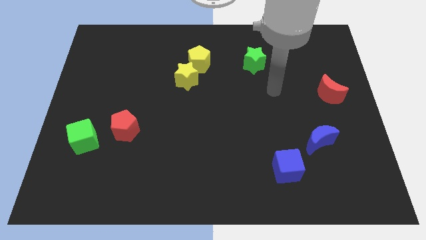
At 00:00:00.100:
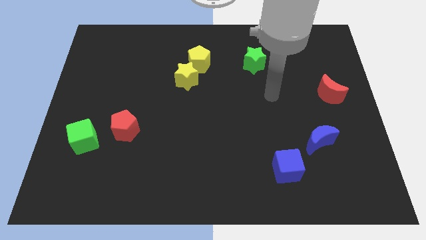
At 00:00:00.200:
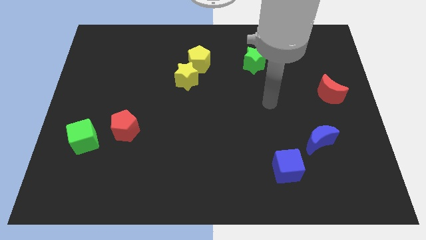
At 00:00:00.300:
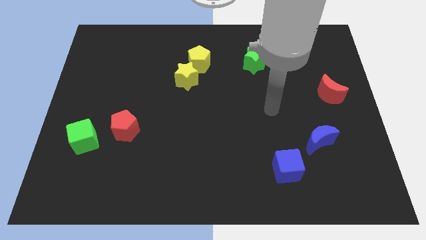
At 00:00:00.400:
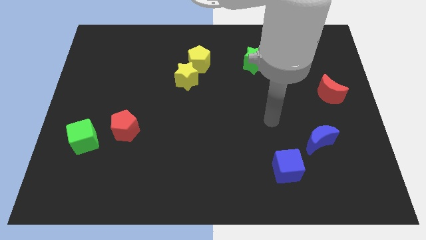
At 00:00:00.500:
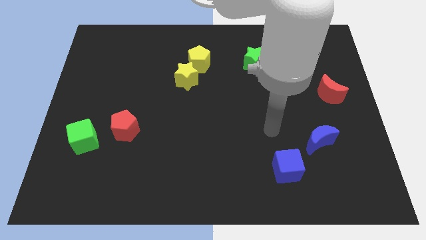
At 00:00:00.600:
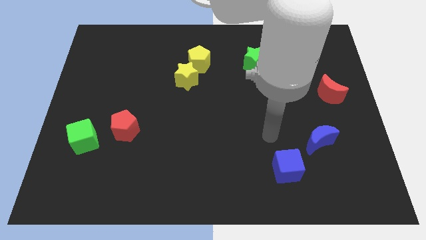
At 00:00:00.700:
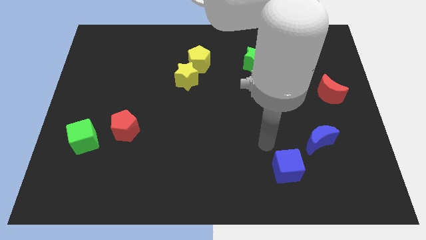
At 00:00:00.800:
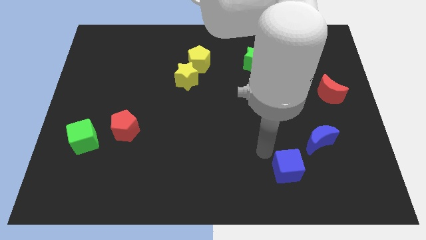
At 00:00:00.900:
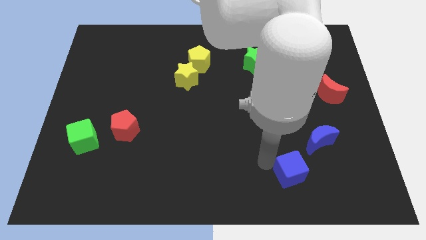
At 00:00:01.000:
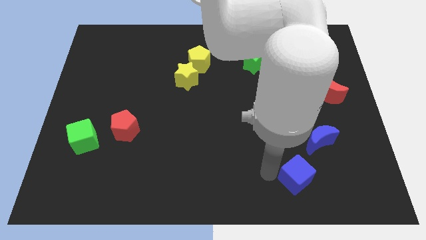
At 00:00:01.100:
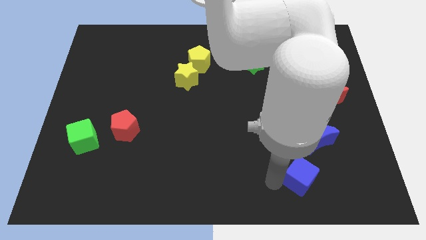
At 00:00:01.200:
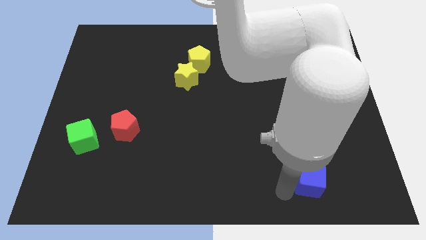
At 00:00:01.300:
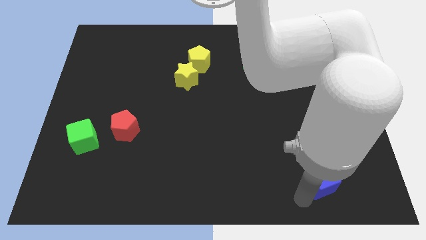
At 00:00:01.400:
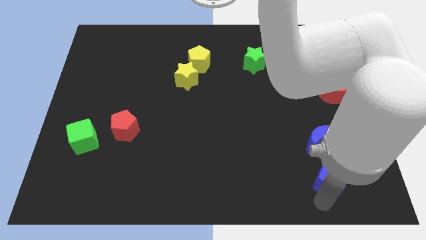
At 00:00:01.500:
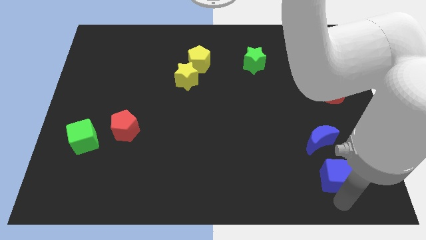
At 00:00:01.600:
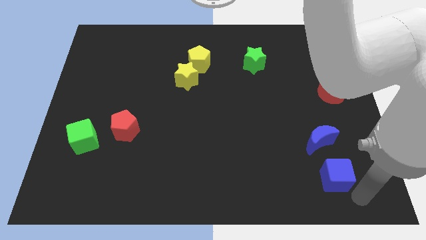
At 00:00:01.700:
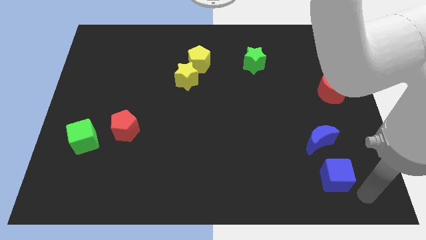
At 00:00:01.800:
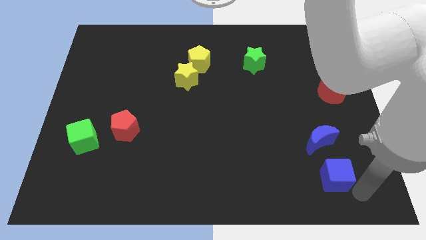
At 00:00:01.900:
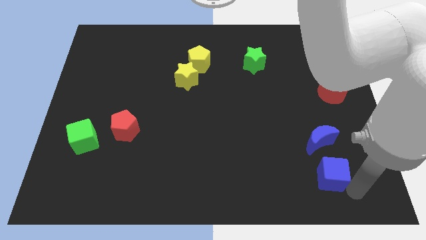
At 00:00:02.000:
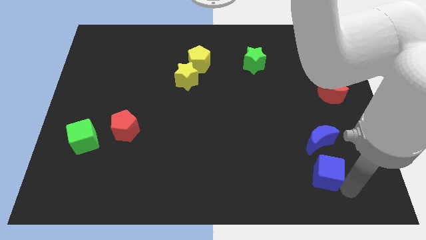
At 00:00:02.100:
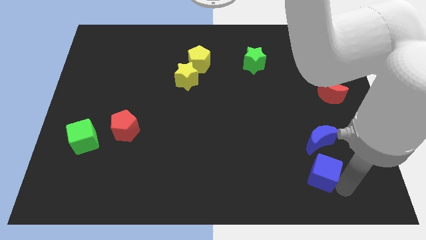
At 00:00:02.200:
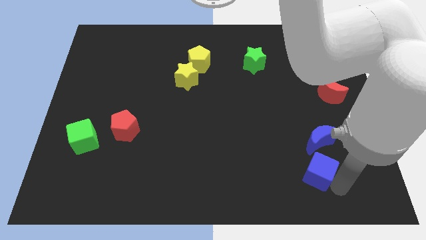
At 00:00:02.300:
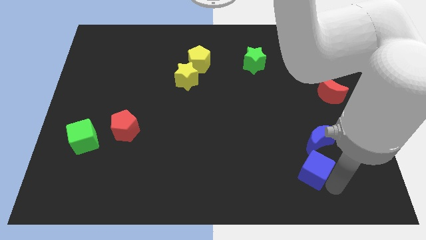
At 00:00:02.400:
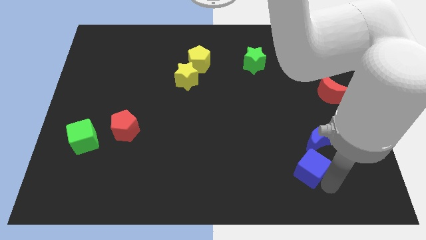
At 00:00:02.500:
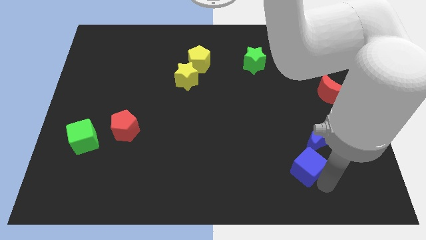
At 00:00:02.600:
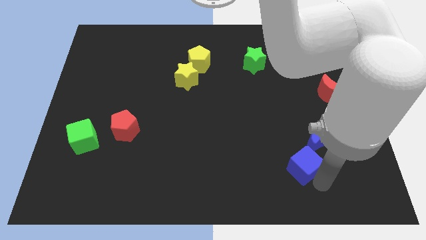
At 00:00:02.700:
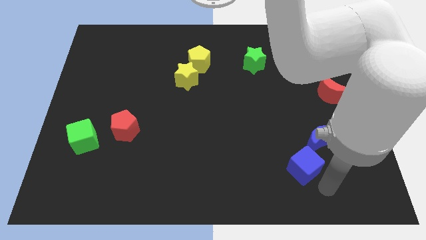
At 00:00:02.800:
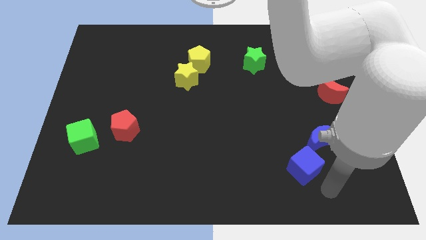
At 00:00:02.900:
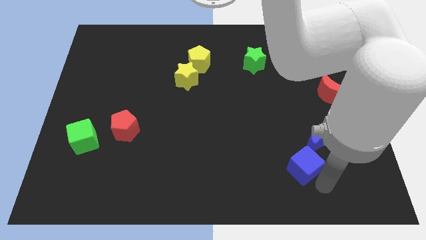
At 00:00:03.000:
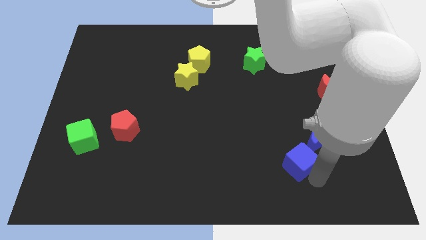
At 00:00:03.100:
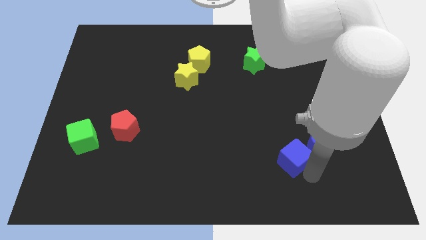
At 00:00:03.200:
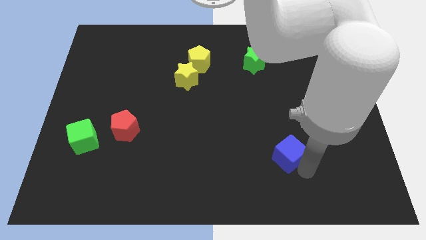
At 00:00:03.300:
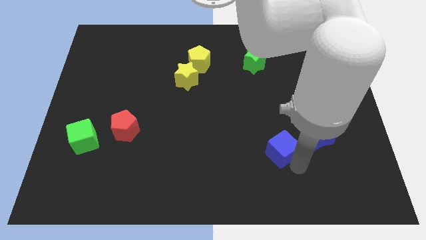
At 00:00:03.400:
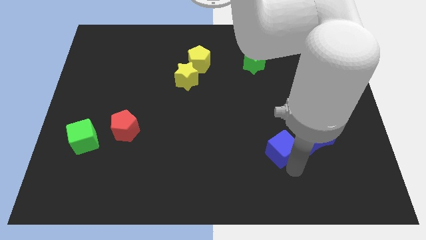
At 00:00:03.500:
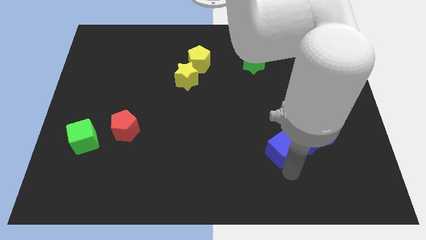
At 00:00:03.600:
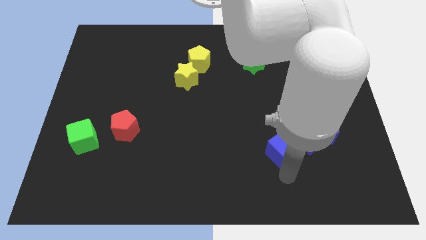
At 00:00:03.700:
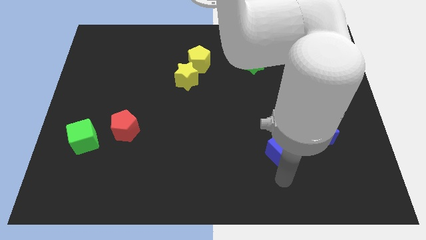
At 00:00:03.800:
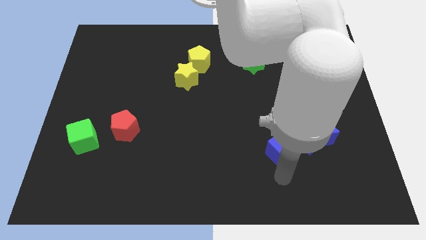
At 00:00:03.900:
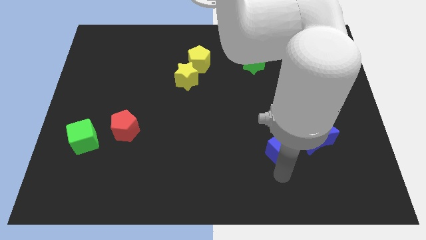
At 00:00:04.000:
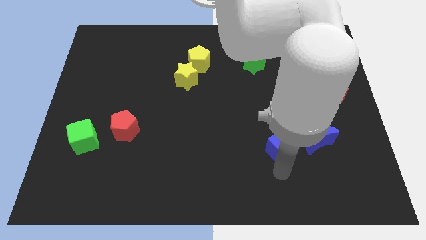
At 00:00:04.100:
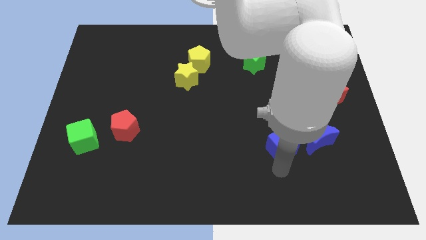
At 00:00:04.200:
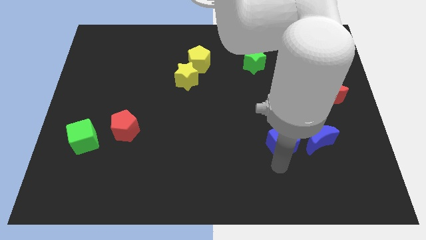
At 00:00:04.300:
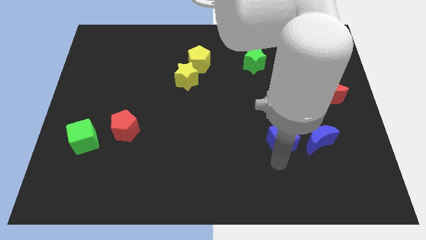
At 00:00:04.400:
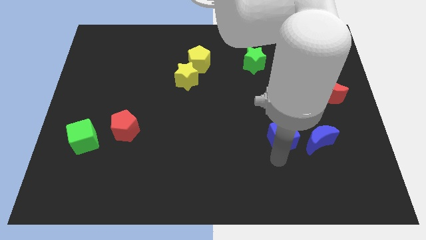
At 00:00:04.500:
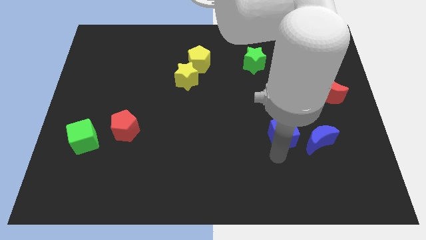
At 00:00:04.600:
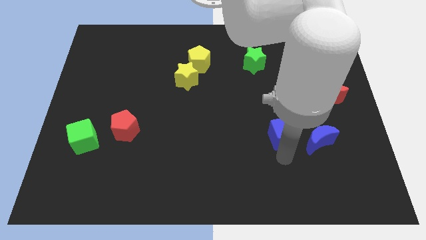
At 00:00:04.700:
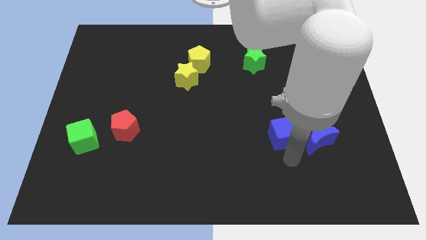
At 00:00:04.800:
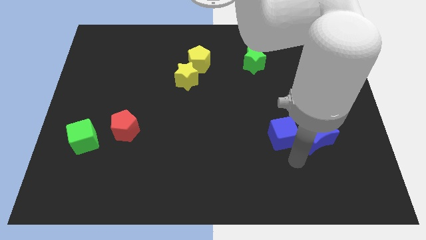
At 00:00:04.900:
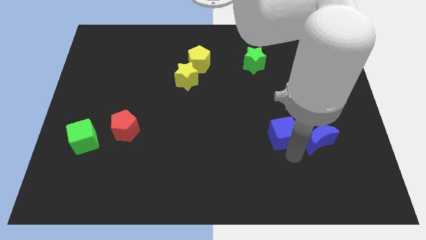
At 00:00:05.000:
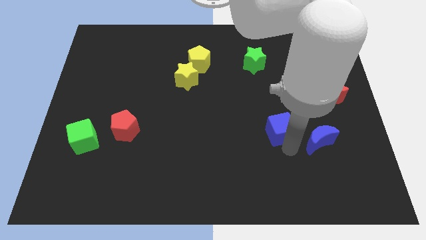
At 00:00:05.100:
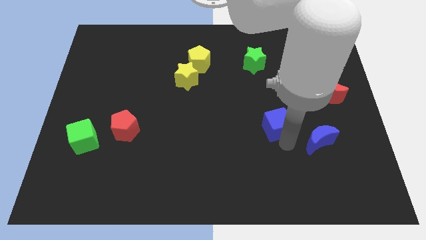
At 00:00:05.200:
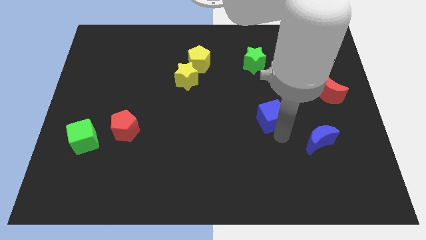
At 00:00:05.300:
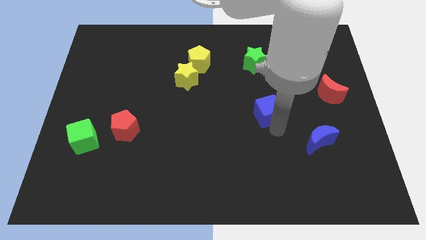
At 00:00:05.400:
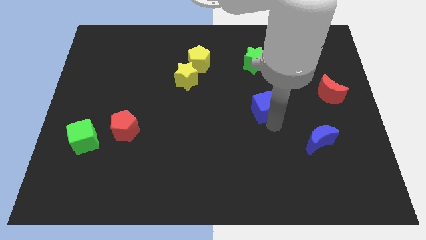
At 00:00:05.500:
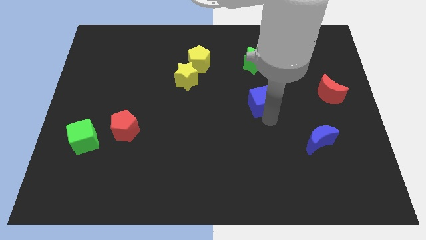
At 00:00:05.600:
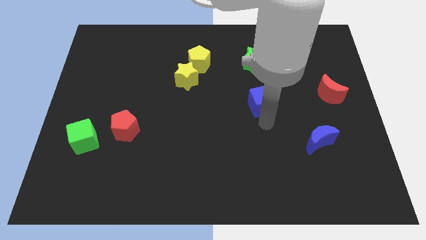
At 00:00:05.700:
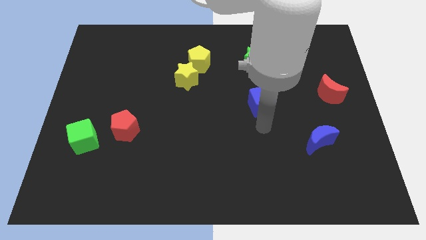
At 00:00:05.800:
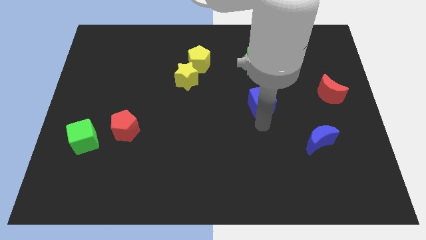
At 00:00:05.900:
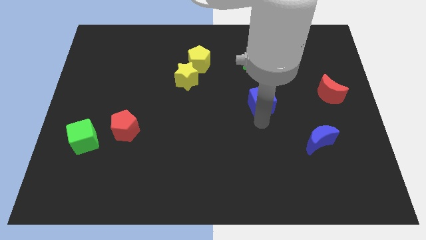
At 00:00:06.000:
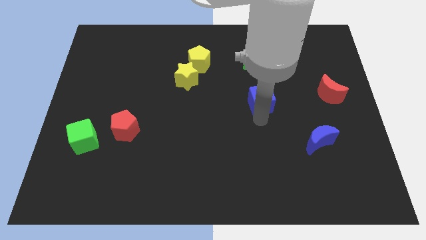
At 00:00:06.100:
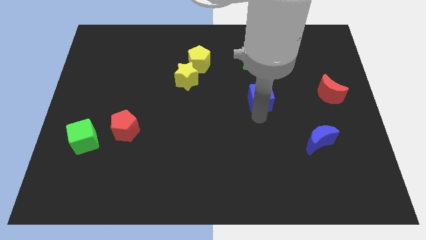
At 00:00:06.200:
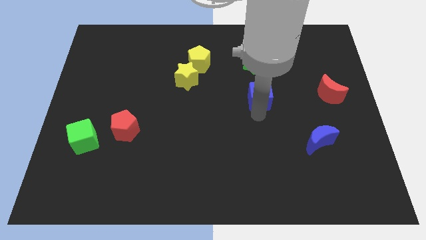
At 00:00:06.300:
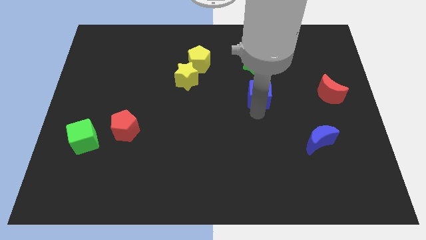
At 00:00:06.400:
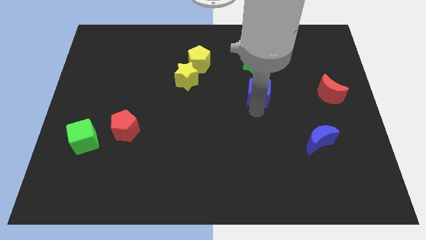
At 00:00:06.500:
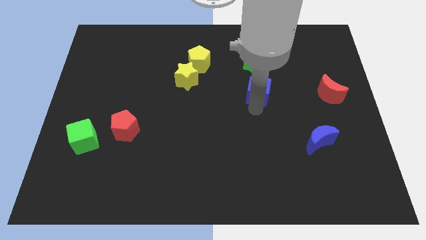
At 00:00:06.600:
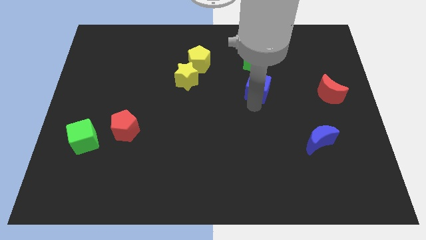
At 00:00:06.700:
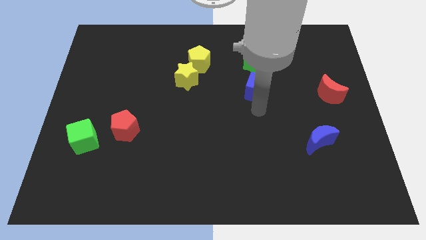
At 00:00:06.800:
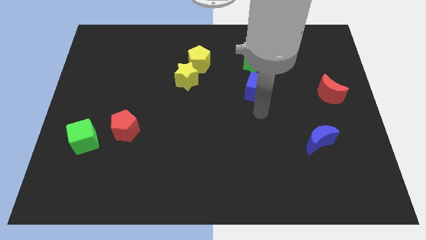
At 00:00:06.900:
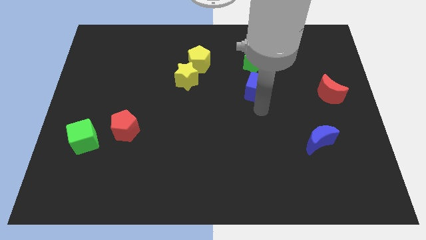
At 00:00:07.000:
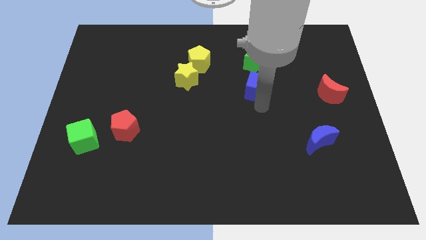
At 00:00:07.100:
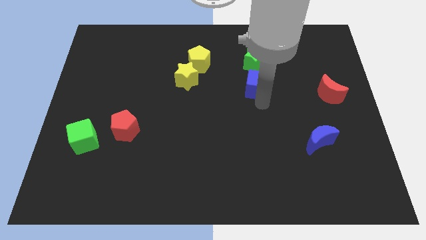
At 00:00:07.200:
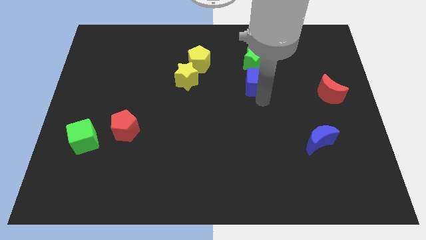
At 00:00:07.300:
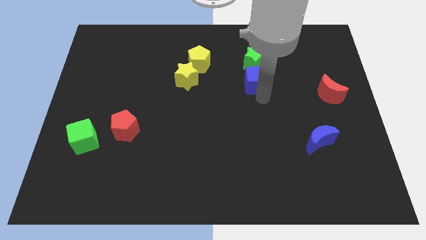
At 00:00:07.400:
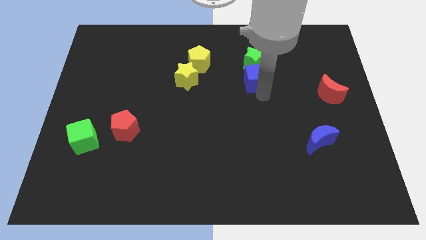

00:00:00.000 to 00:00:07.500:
move the blue cube towards the green star
